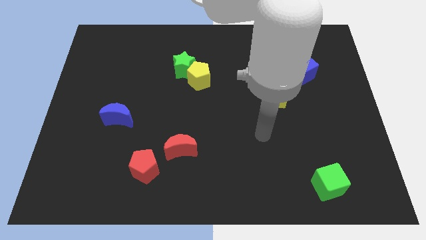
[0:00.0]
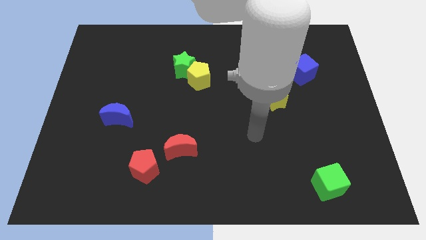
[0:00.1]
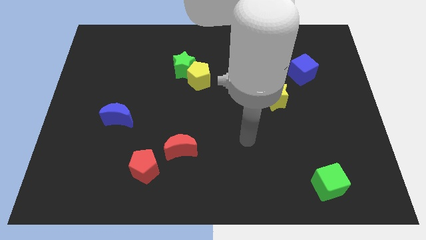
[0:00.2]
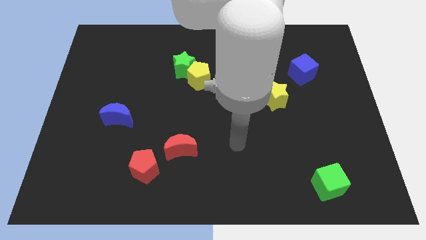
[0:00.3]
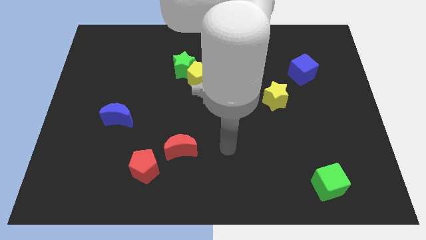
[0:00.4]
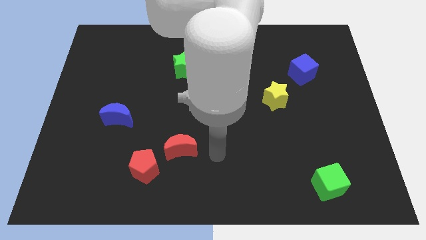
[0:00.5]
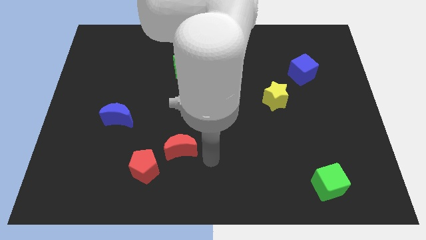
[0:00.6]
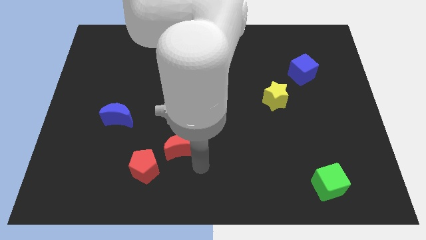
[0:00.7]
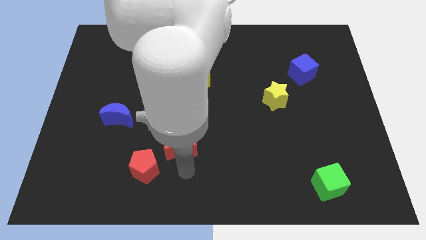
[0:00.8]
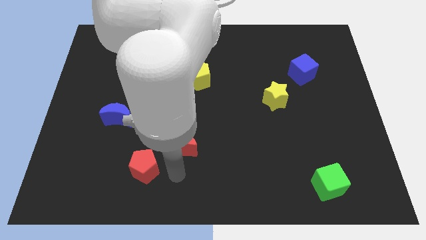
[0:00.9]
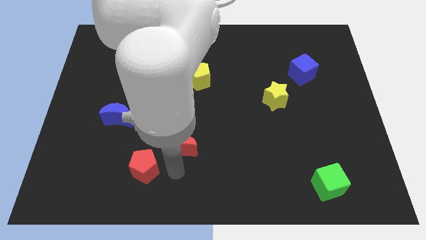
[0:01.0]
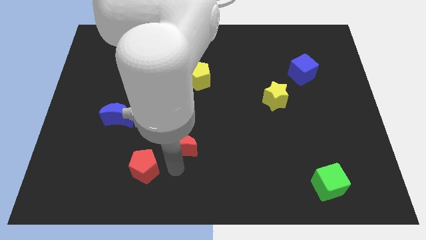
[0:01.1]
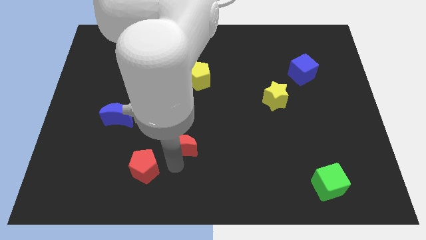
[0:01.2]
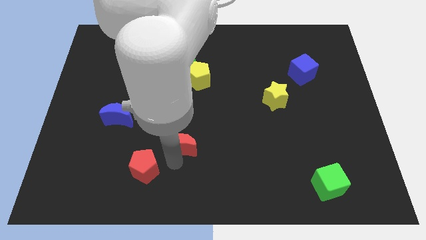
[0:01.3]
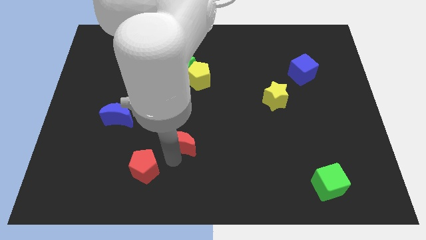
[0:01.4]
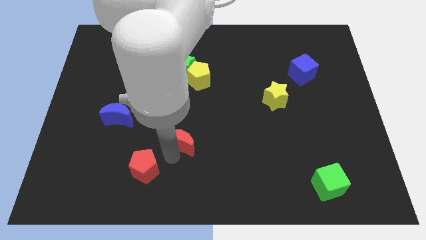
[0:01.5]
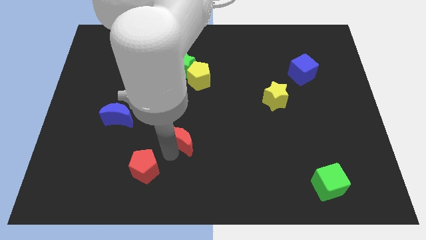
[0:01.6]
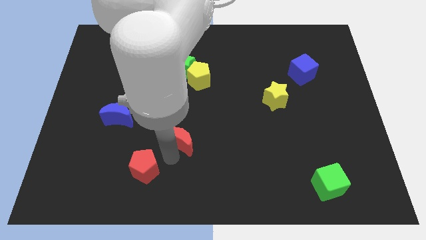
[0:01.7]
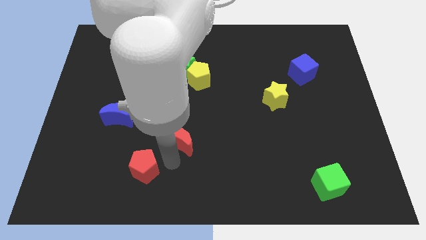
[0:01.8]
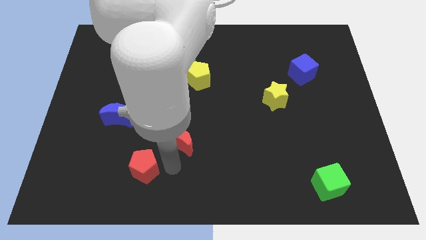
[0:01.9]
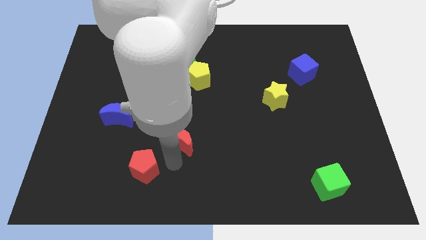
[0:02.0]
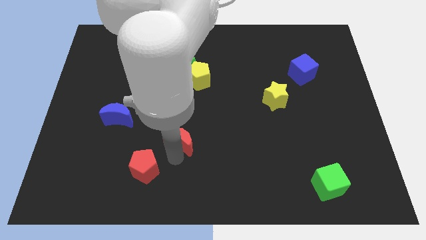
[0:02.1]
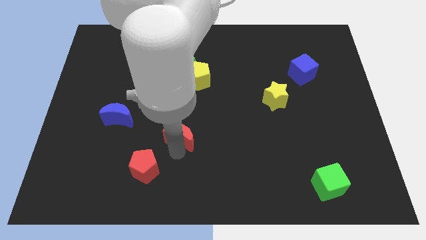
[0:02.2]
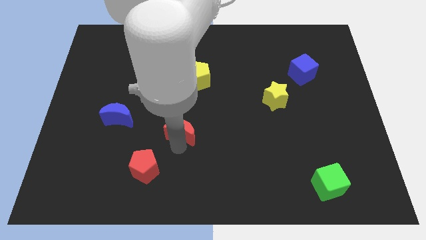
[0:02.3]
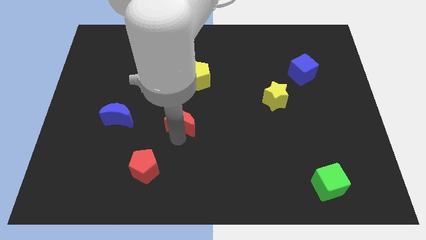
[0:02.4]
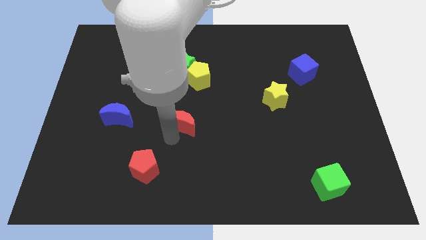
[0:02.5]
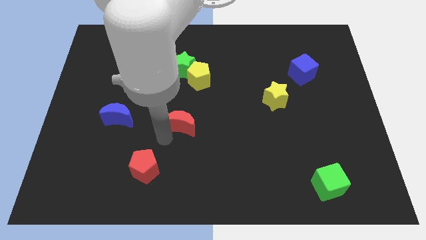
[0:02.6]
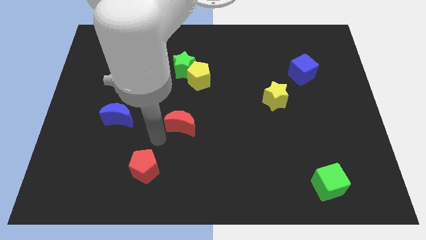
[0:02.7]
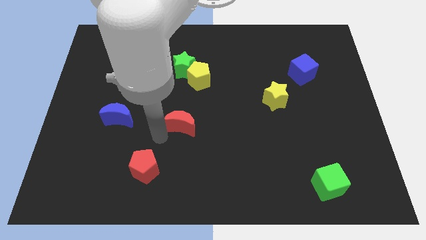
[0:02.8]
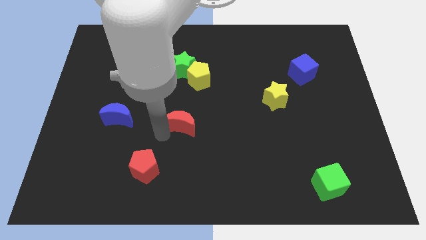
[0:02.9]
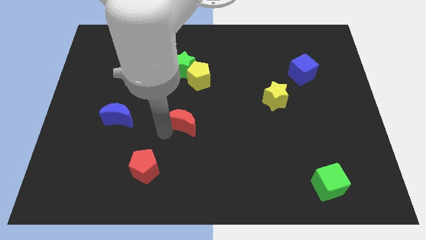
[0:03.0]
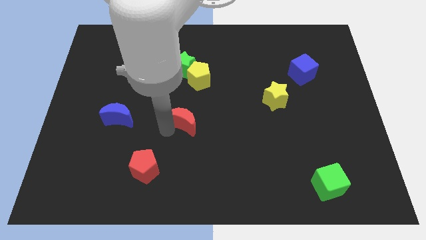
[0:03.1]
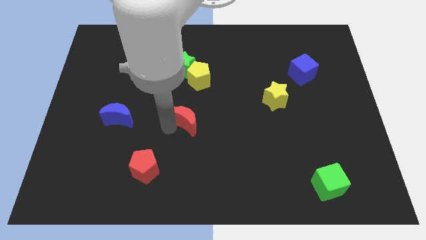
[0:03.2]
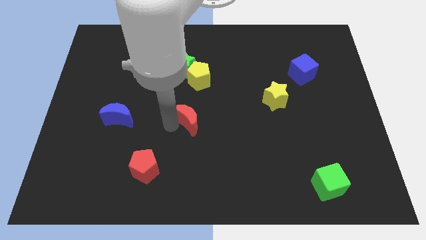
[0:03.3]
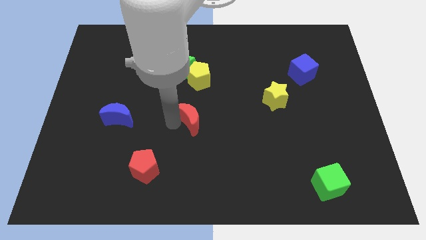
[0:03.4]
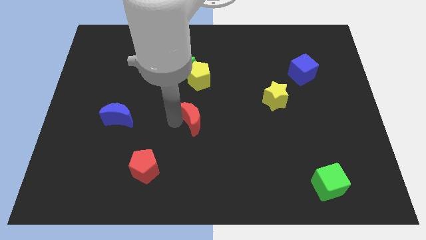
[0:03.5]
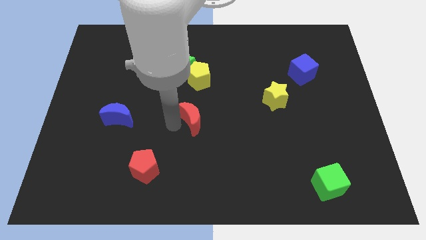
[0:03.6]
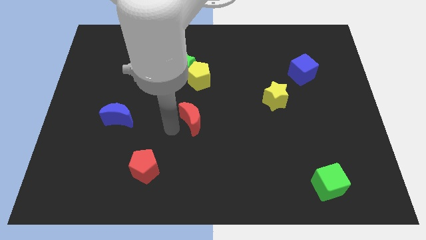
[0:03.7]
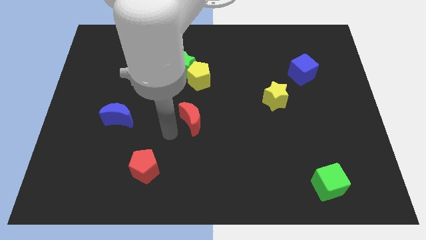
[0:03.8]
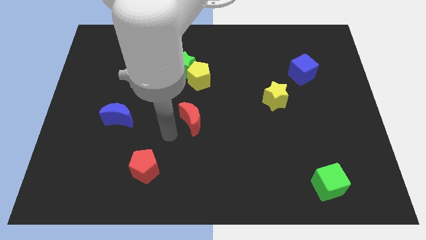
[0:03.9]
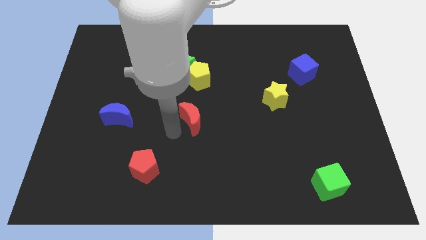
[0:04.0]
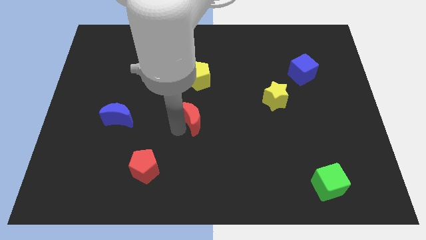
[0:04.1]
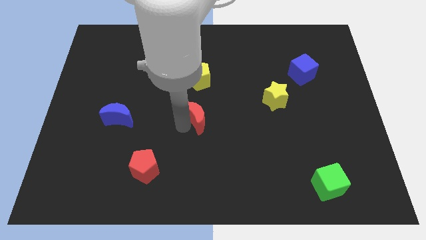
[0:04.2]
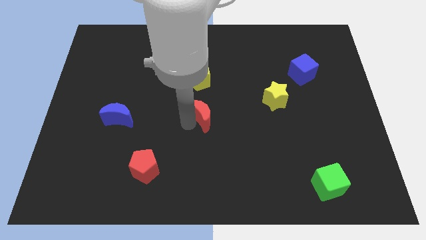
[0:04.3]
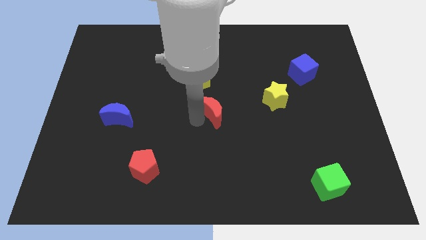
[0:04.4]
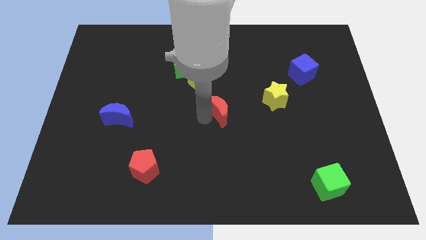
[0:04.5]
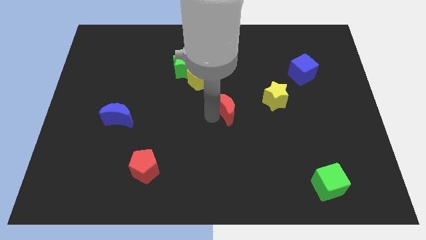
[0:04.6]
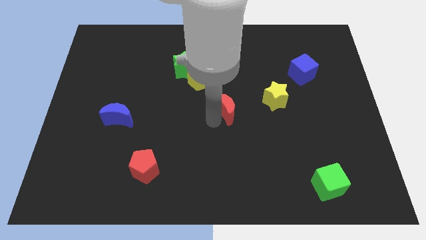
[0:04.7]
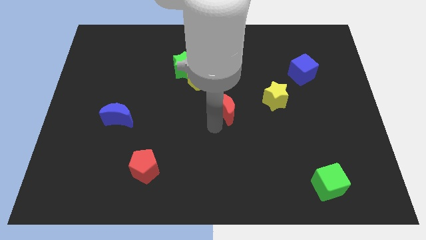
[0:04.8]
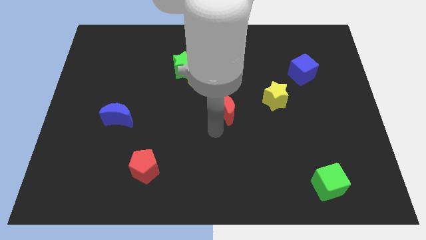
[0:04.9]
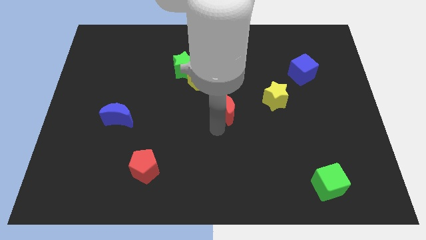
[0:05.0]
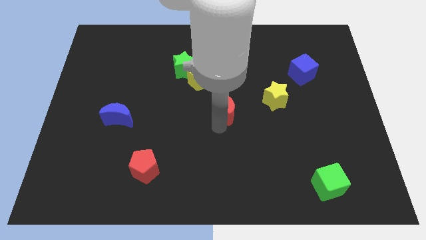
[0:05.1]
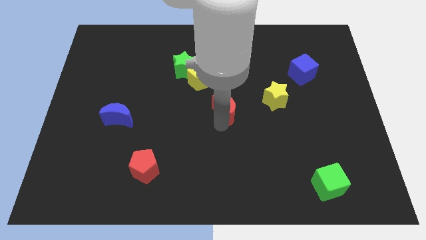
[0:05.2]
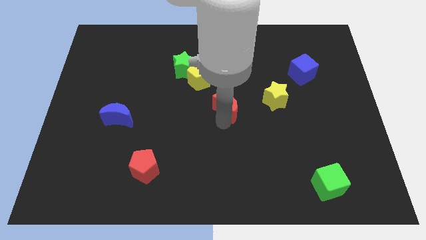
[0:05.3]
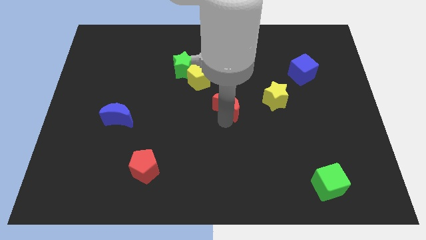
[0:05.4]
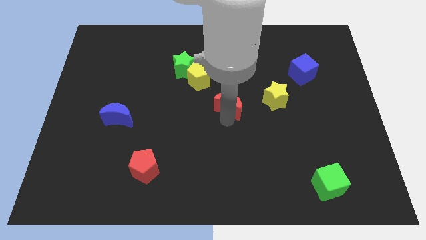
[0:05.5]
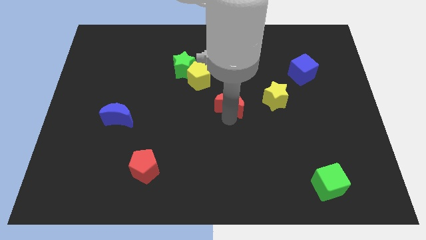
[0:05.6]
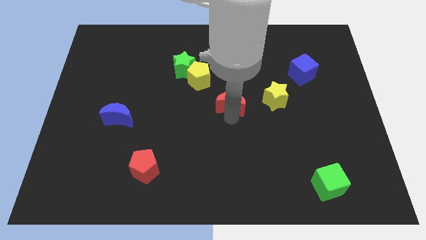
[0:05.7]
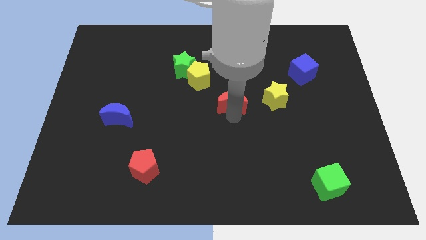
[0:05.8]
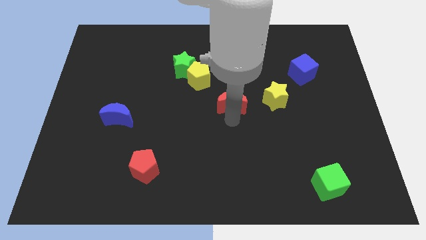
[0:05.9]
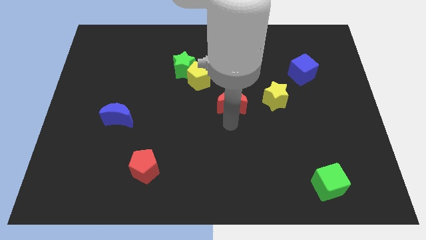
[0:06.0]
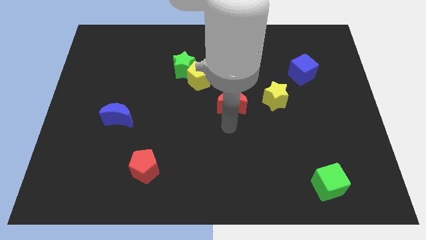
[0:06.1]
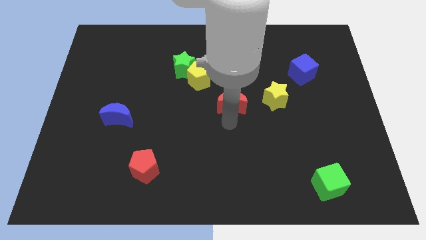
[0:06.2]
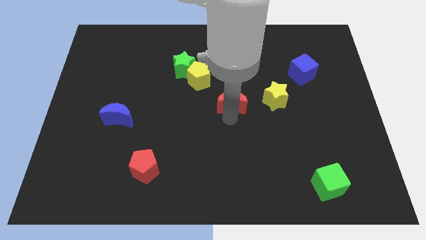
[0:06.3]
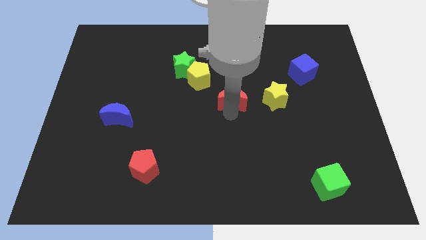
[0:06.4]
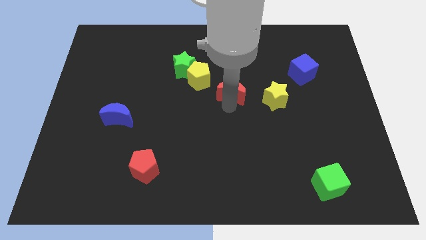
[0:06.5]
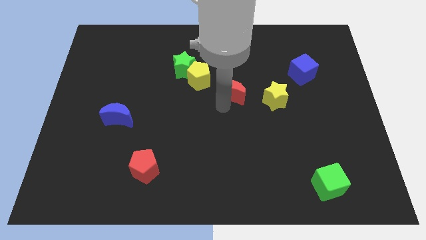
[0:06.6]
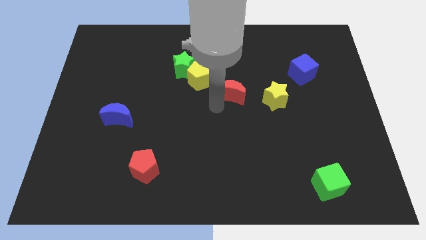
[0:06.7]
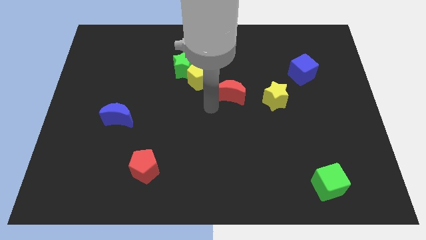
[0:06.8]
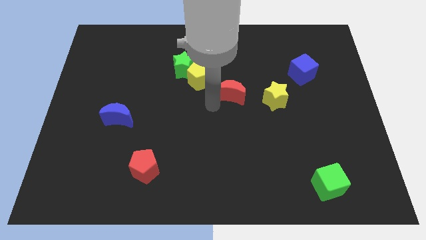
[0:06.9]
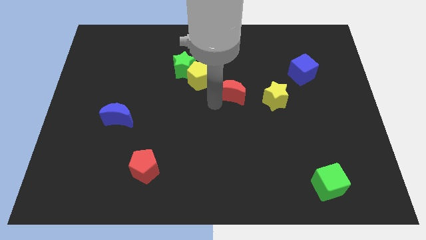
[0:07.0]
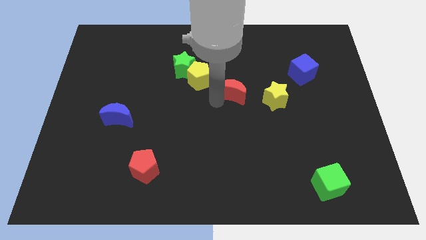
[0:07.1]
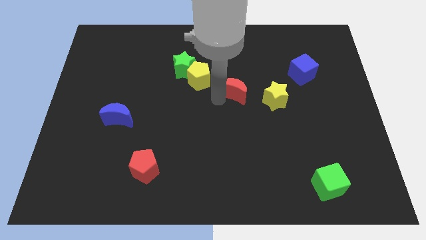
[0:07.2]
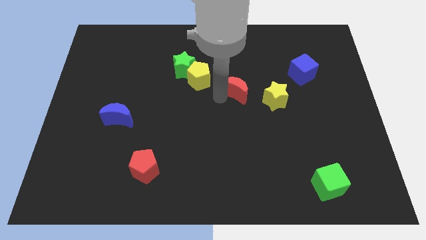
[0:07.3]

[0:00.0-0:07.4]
move the red moon to the top left of the yellow star

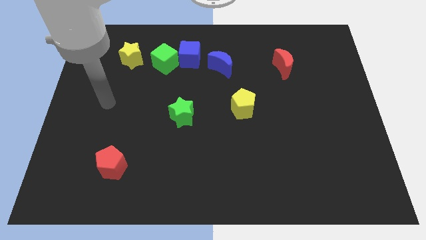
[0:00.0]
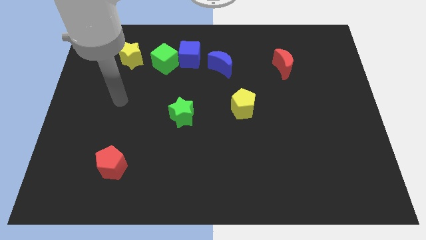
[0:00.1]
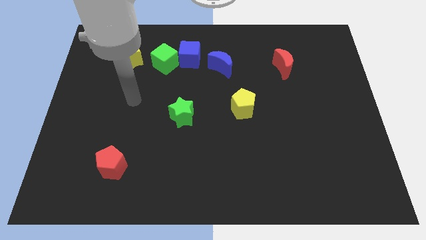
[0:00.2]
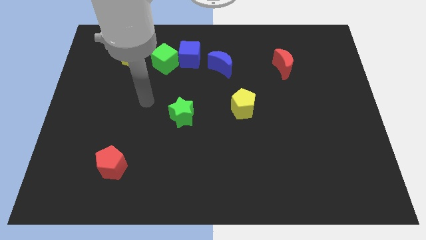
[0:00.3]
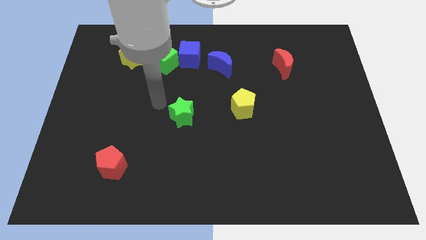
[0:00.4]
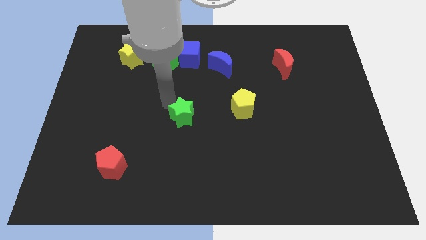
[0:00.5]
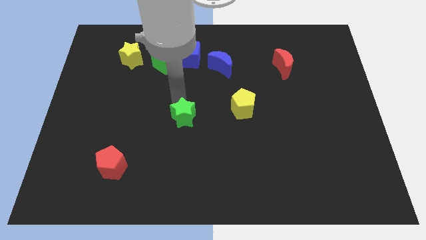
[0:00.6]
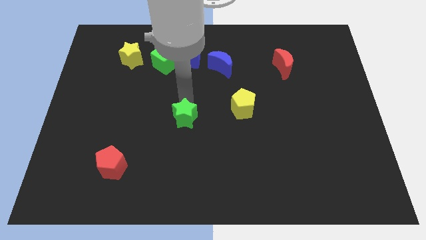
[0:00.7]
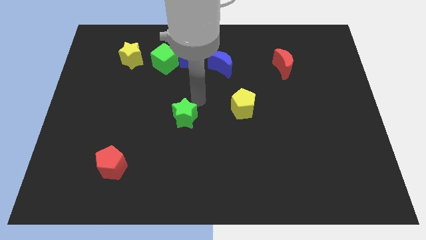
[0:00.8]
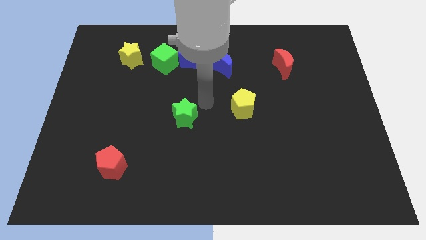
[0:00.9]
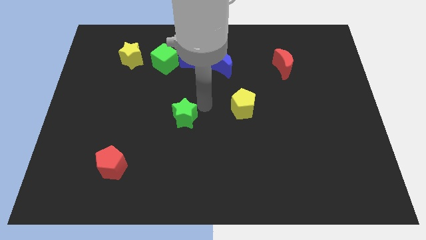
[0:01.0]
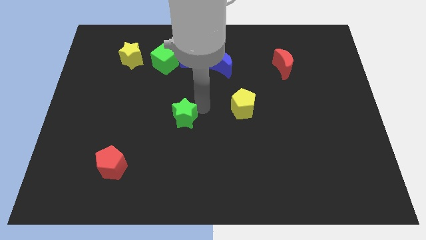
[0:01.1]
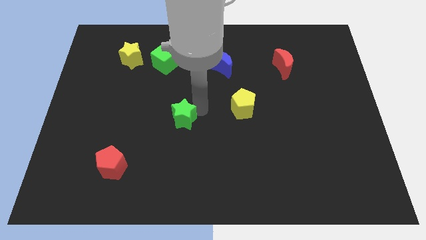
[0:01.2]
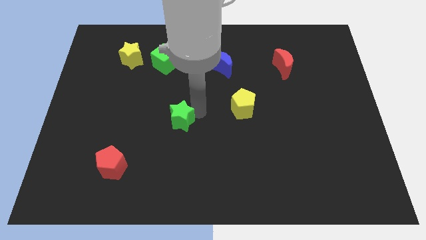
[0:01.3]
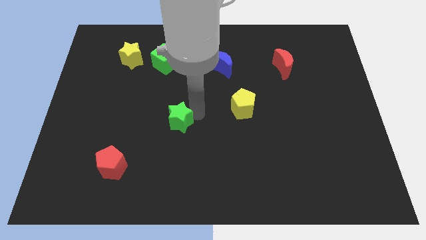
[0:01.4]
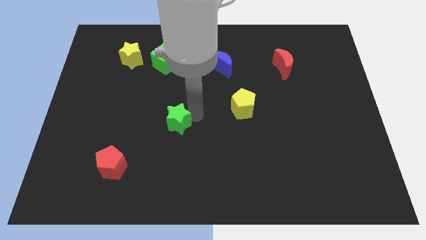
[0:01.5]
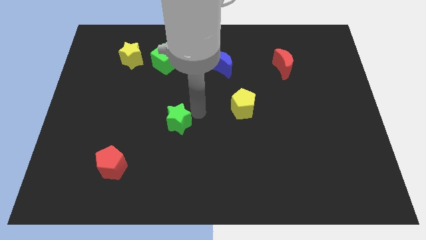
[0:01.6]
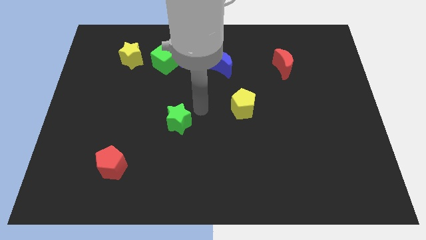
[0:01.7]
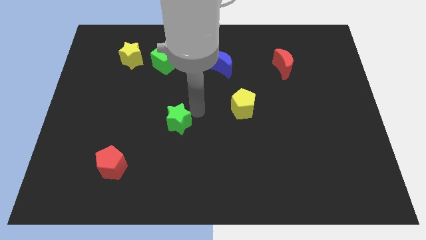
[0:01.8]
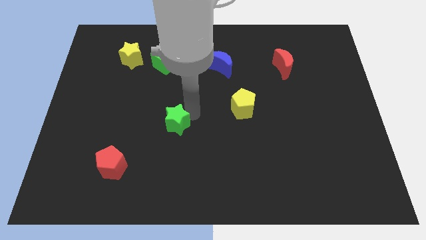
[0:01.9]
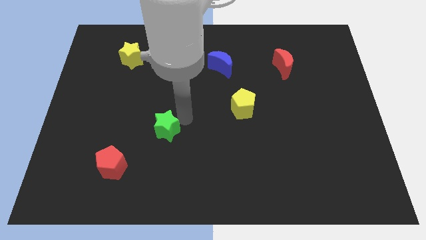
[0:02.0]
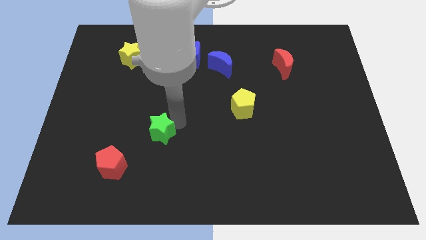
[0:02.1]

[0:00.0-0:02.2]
put the green star diagonally up and to the right of the red pentagon
